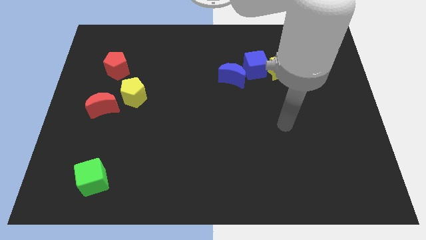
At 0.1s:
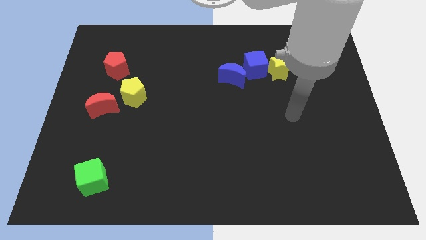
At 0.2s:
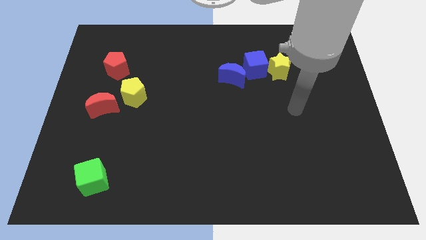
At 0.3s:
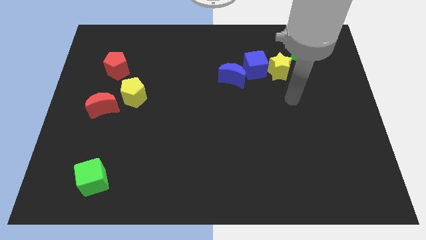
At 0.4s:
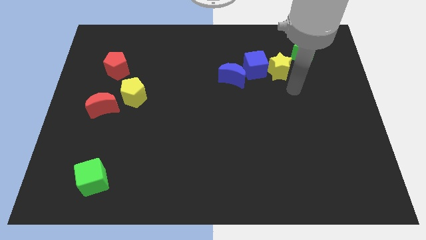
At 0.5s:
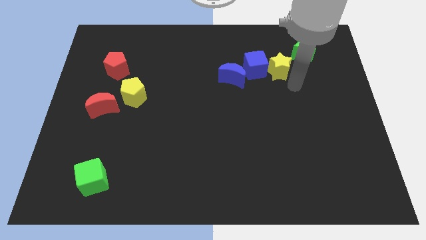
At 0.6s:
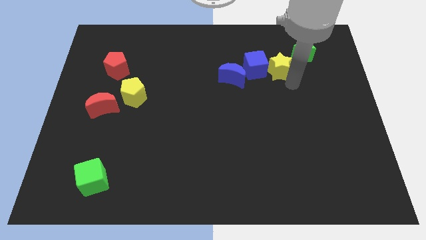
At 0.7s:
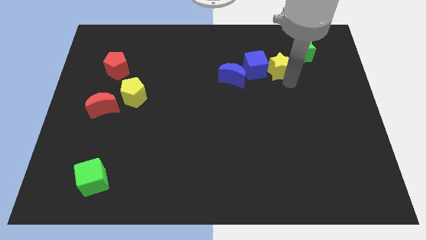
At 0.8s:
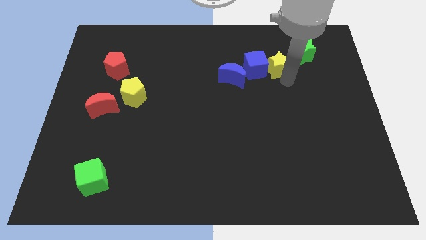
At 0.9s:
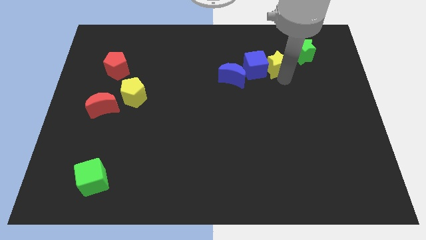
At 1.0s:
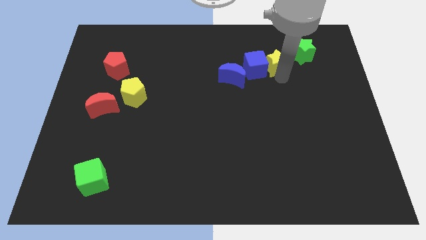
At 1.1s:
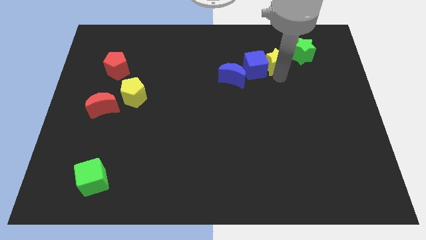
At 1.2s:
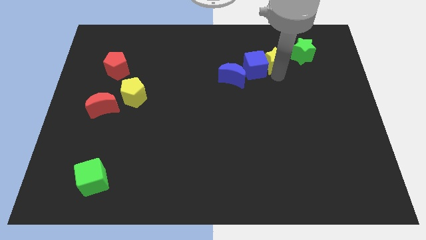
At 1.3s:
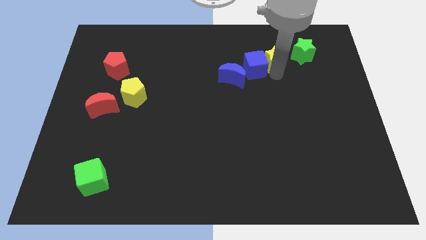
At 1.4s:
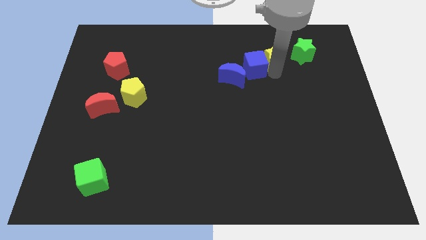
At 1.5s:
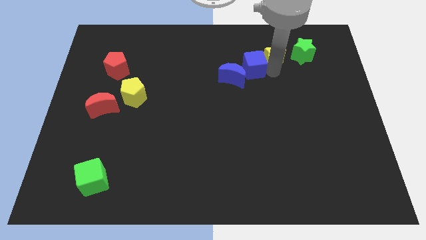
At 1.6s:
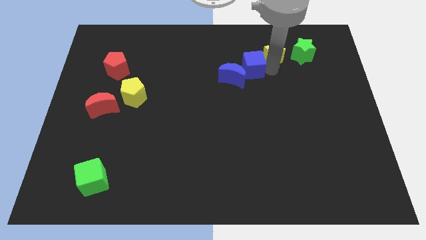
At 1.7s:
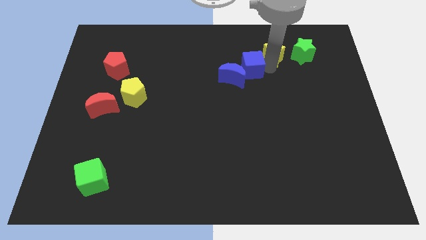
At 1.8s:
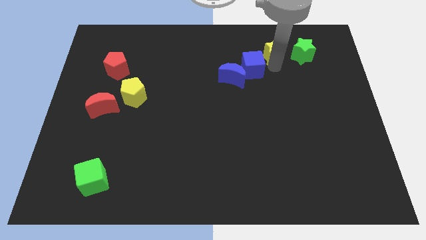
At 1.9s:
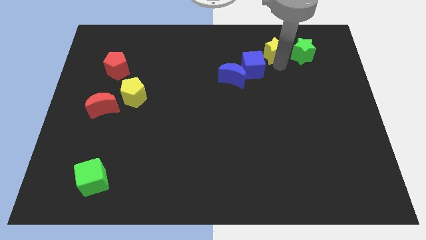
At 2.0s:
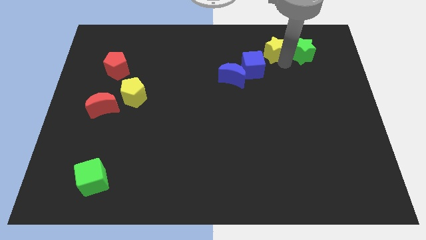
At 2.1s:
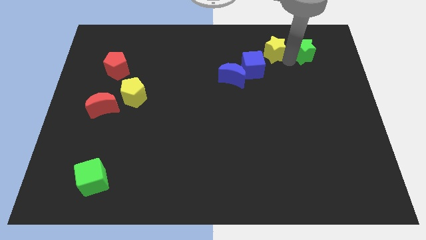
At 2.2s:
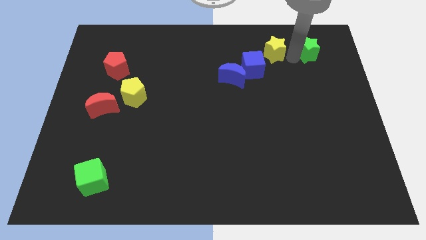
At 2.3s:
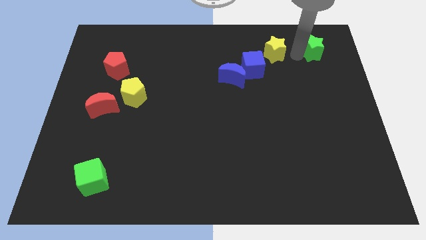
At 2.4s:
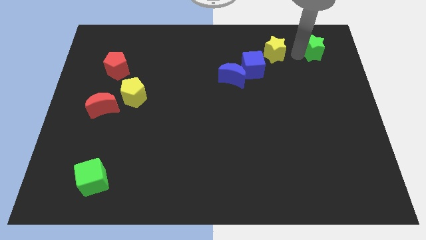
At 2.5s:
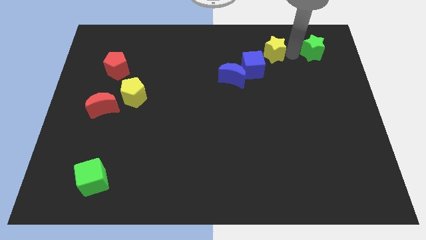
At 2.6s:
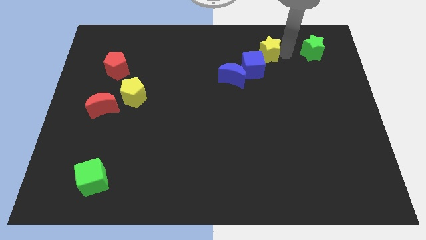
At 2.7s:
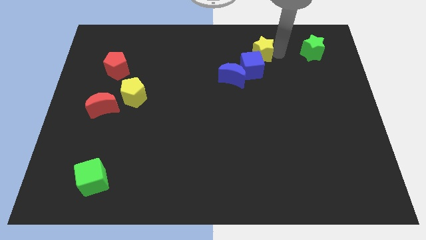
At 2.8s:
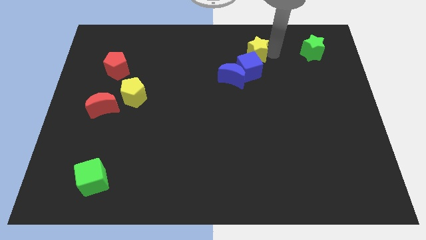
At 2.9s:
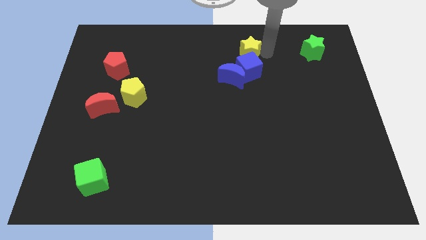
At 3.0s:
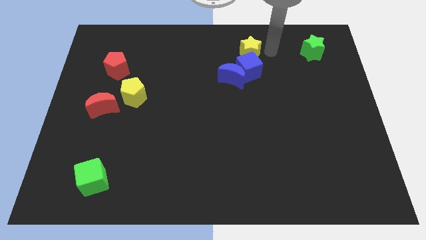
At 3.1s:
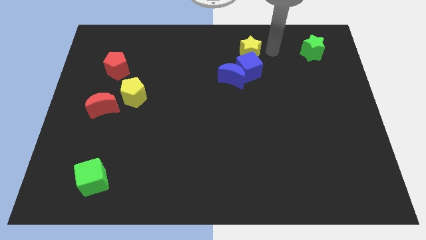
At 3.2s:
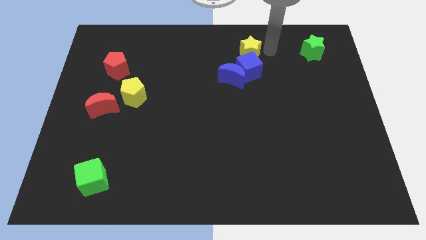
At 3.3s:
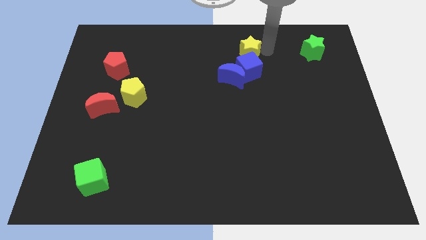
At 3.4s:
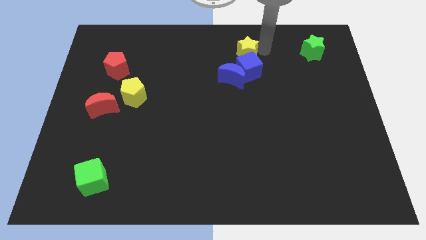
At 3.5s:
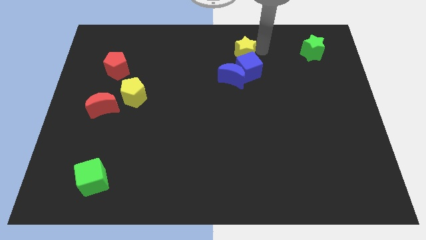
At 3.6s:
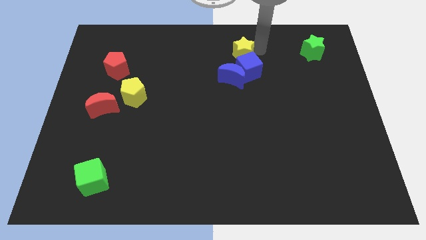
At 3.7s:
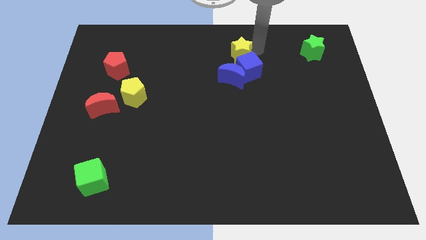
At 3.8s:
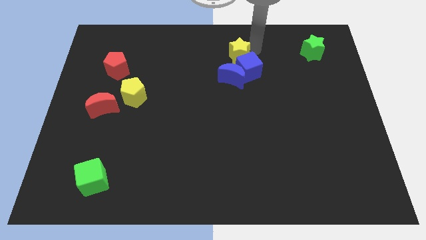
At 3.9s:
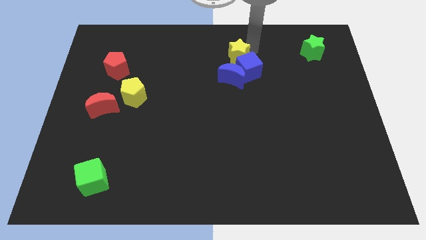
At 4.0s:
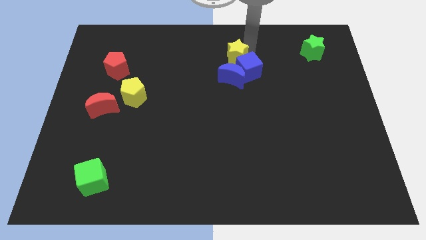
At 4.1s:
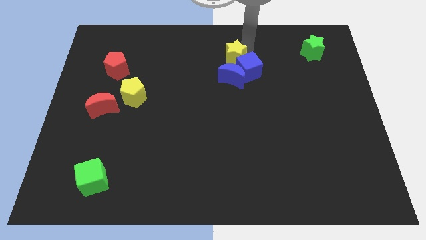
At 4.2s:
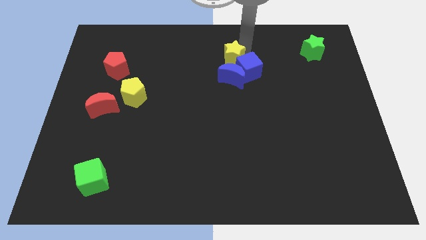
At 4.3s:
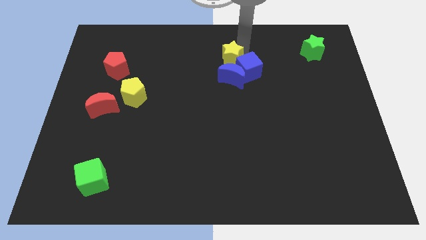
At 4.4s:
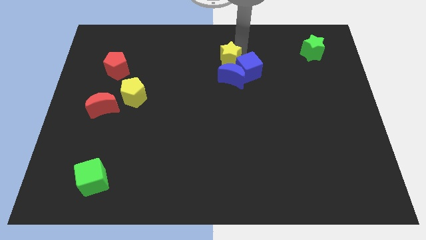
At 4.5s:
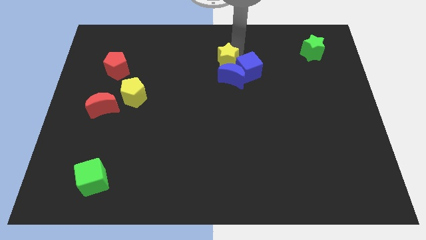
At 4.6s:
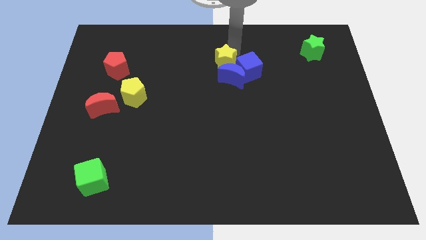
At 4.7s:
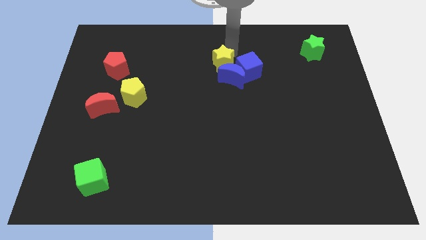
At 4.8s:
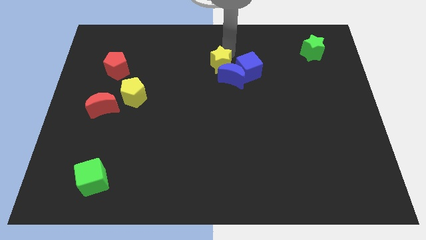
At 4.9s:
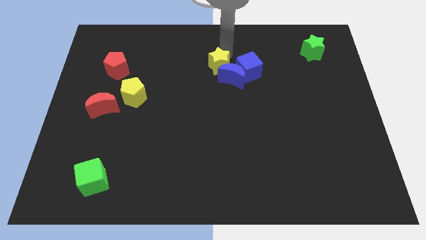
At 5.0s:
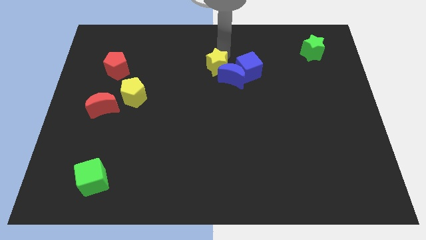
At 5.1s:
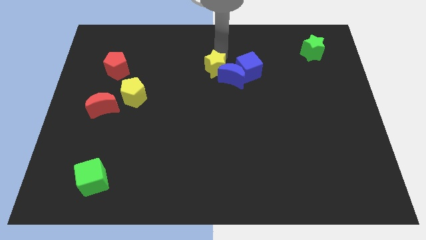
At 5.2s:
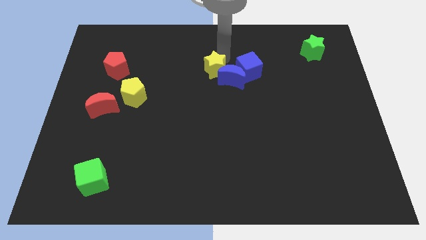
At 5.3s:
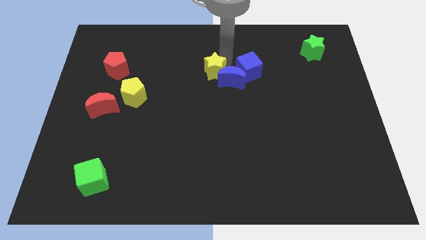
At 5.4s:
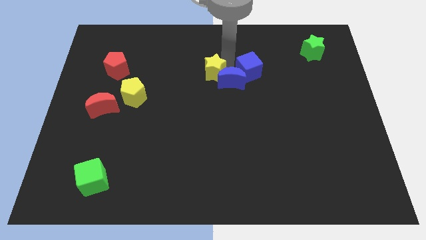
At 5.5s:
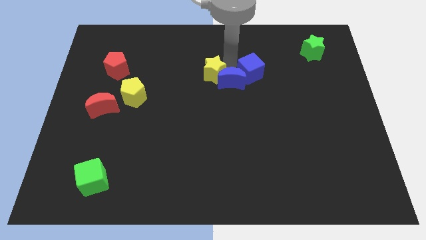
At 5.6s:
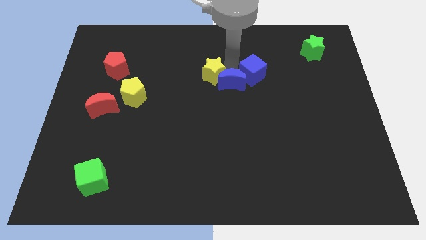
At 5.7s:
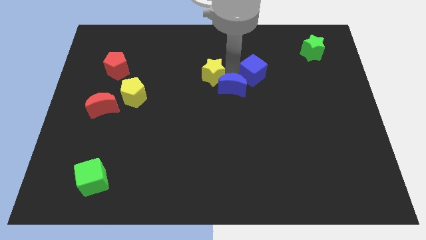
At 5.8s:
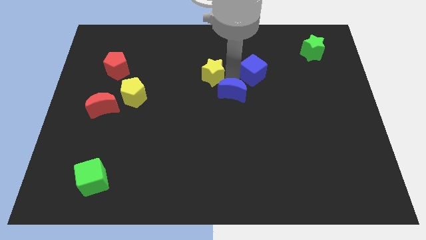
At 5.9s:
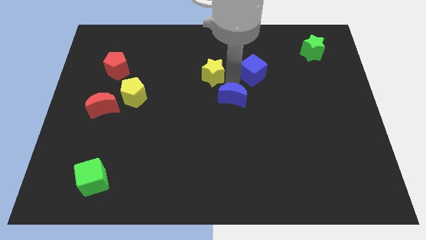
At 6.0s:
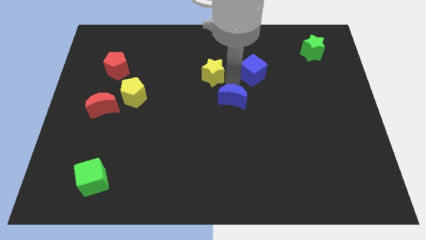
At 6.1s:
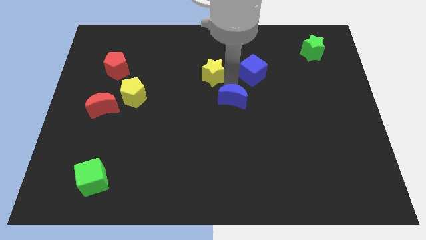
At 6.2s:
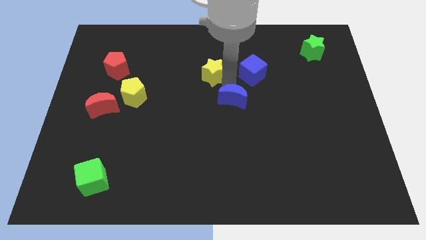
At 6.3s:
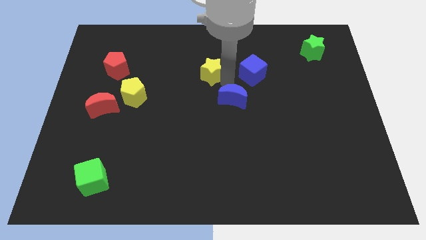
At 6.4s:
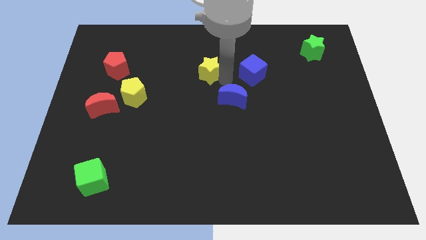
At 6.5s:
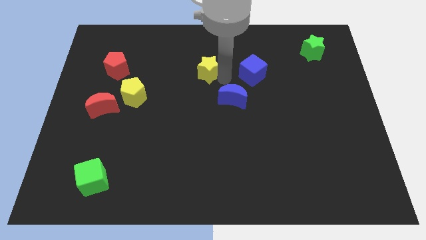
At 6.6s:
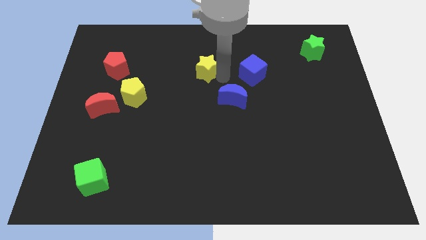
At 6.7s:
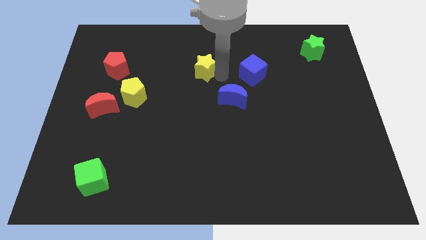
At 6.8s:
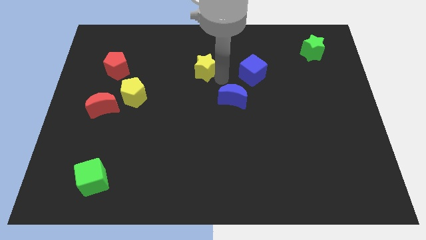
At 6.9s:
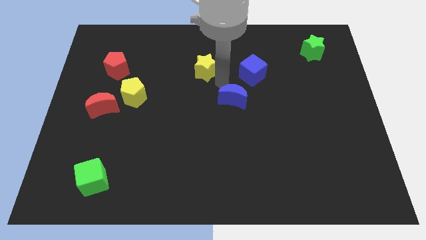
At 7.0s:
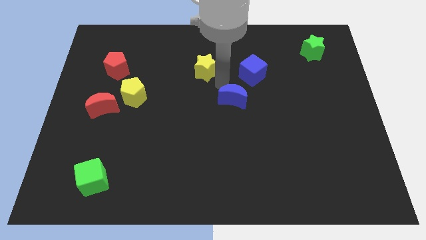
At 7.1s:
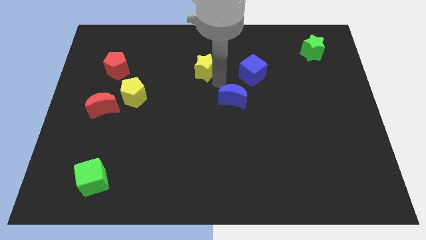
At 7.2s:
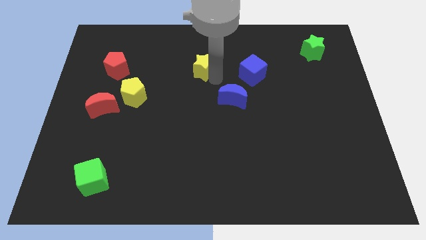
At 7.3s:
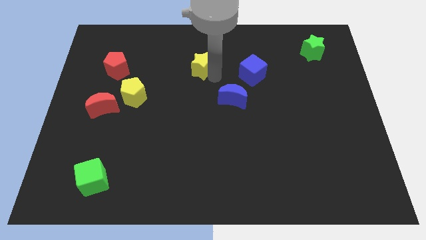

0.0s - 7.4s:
slide the yellow star to the left

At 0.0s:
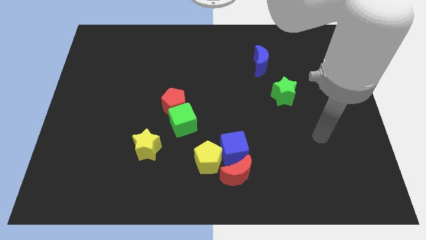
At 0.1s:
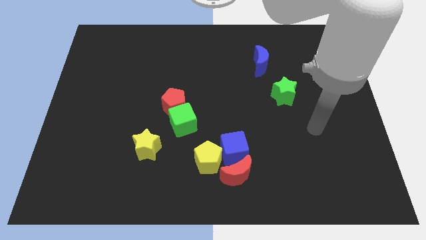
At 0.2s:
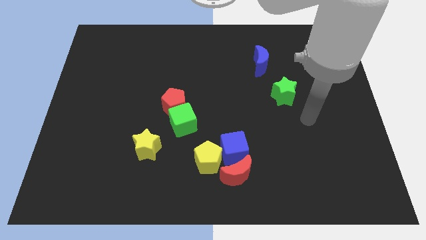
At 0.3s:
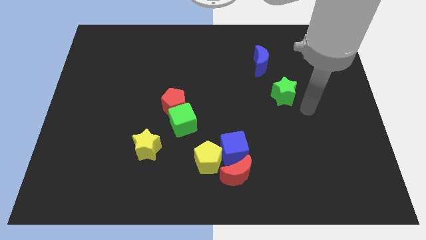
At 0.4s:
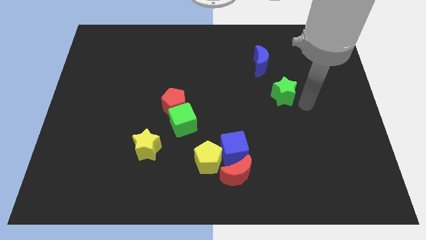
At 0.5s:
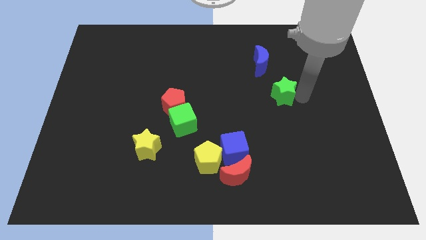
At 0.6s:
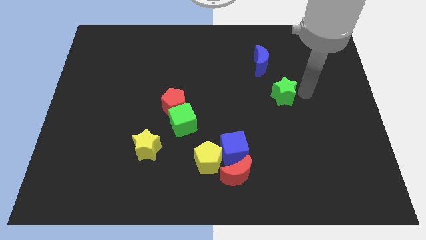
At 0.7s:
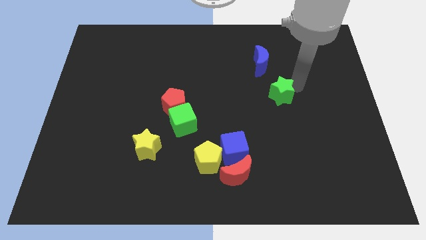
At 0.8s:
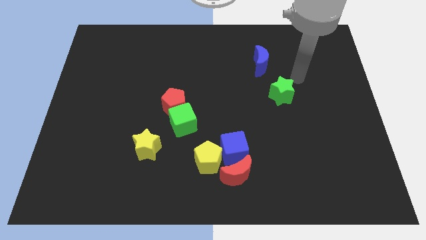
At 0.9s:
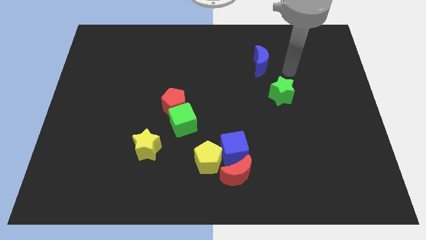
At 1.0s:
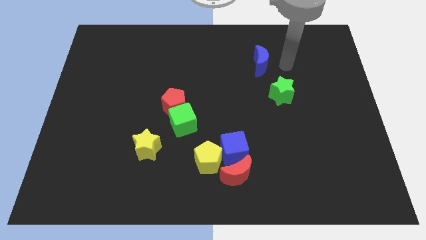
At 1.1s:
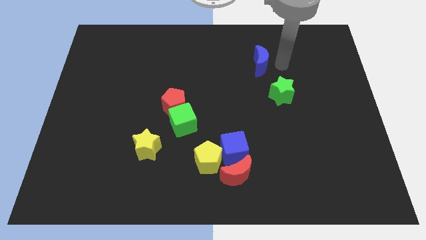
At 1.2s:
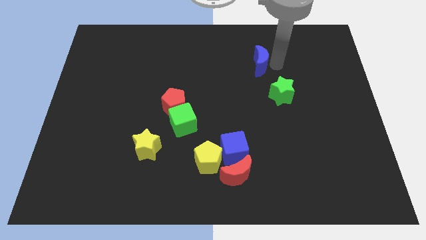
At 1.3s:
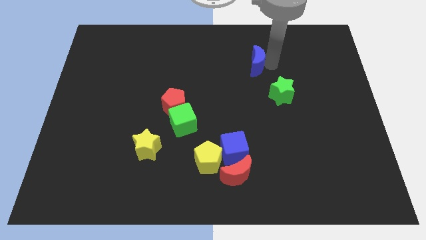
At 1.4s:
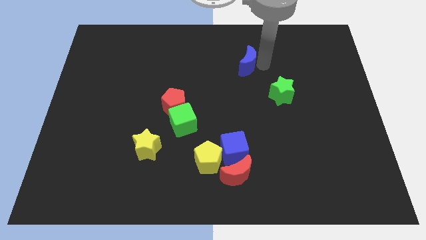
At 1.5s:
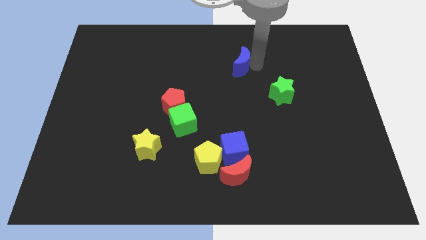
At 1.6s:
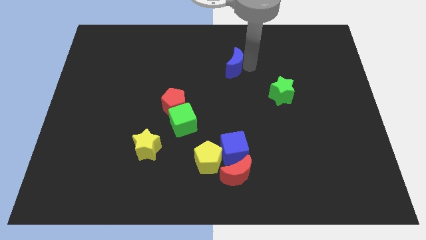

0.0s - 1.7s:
slightly push the blue moon left
